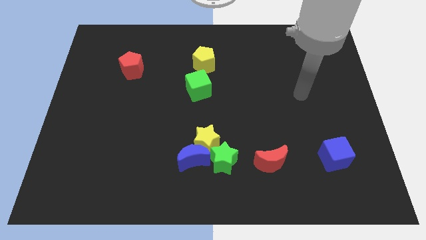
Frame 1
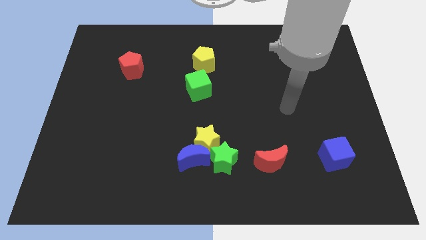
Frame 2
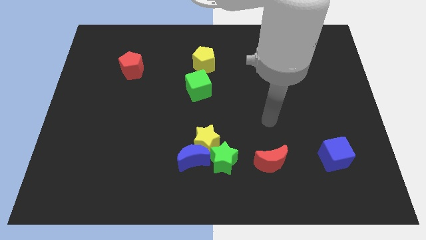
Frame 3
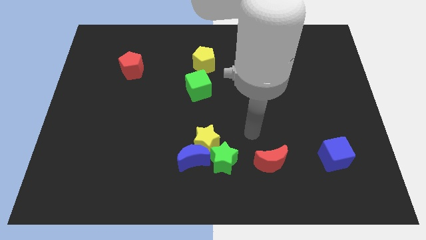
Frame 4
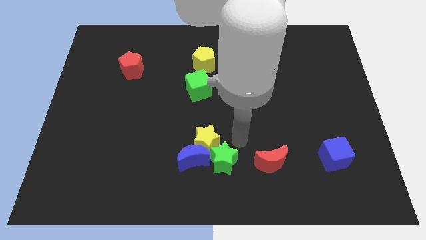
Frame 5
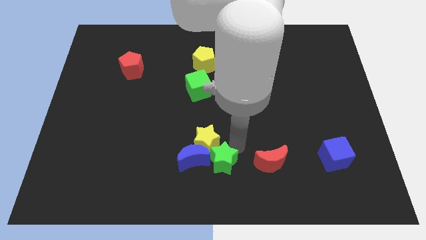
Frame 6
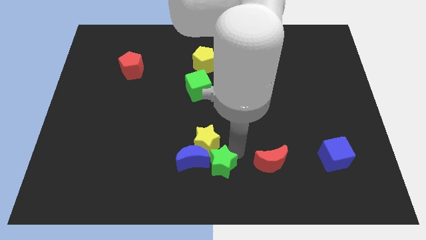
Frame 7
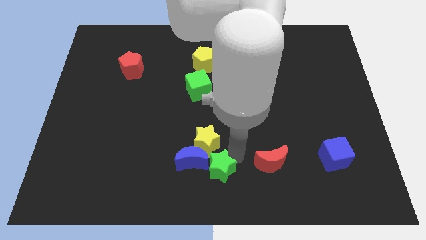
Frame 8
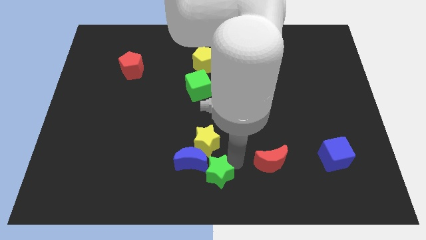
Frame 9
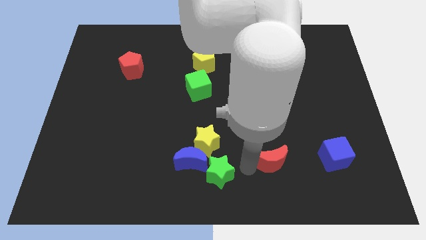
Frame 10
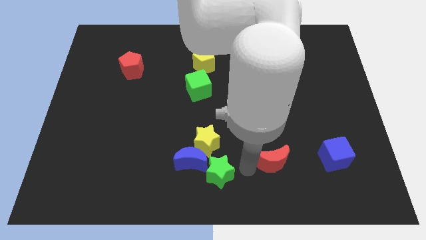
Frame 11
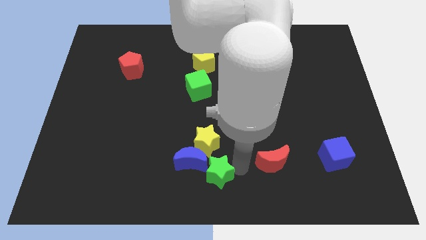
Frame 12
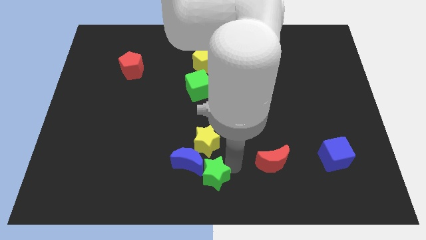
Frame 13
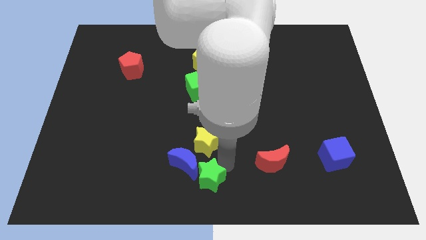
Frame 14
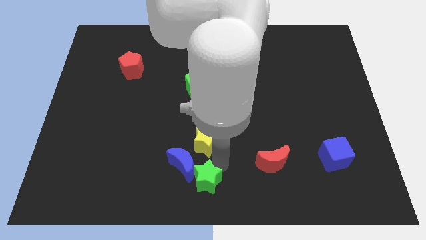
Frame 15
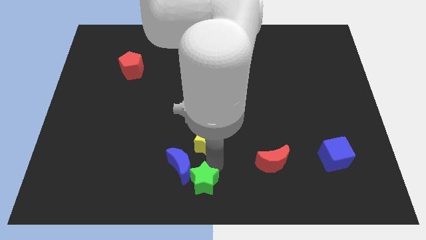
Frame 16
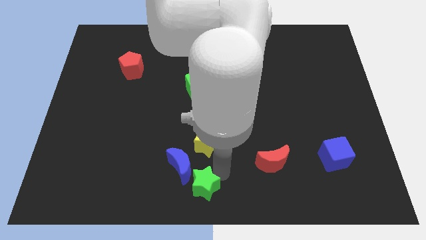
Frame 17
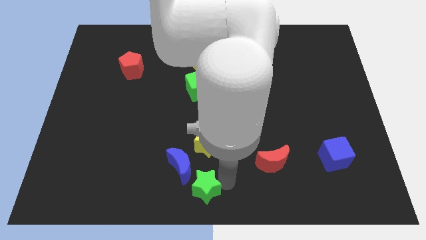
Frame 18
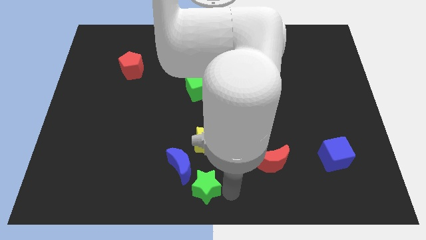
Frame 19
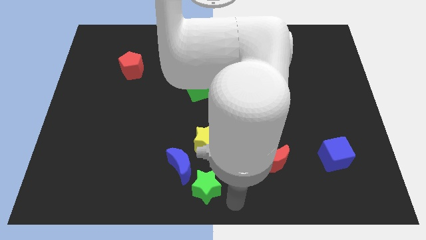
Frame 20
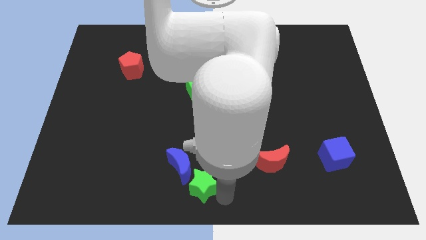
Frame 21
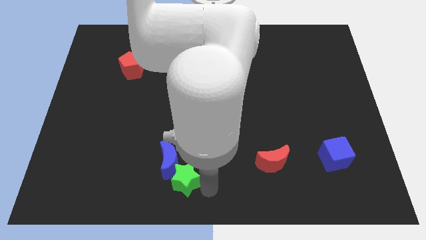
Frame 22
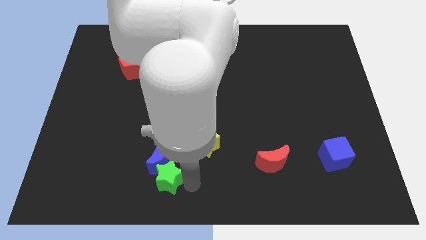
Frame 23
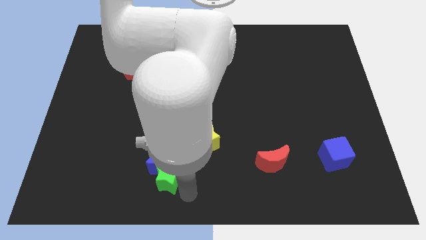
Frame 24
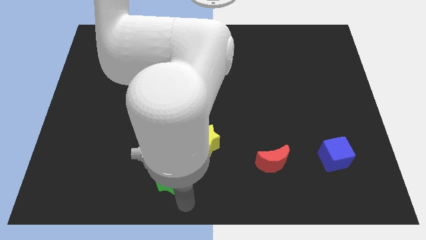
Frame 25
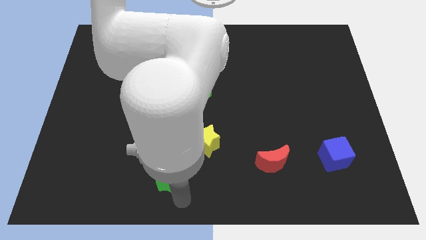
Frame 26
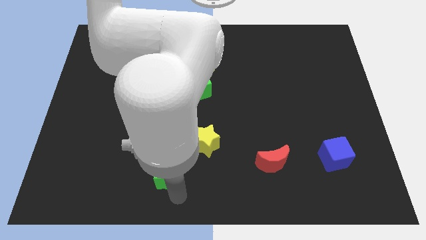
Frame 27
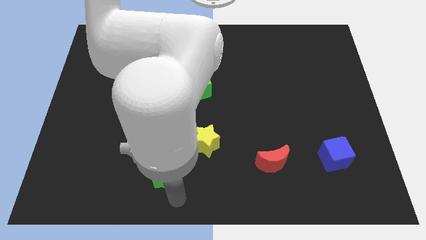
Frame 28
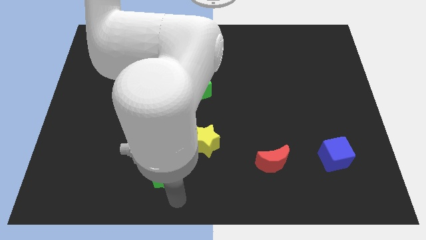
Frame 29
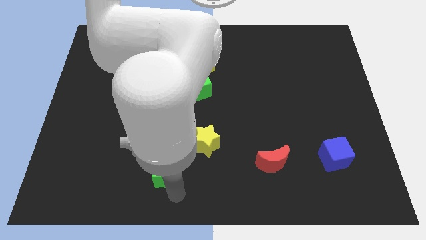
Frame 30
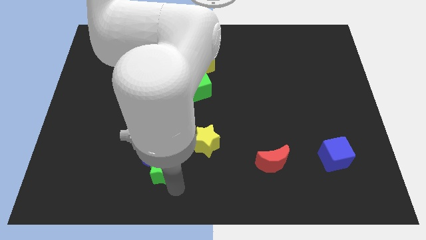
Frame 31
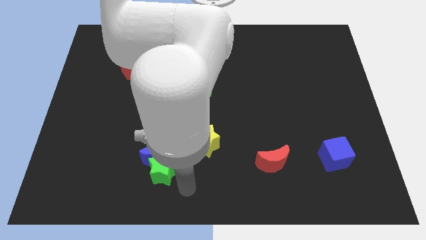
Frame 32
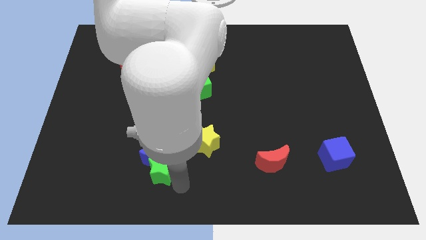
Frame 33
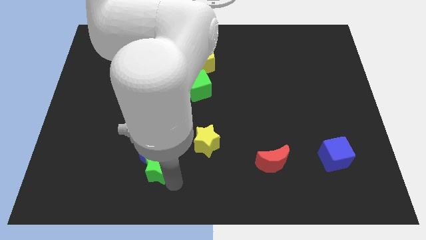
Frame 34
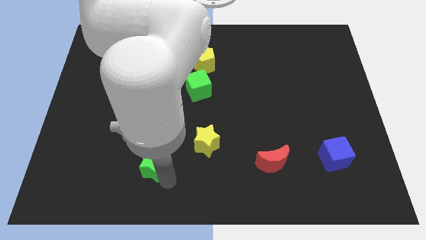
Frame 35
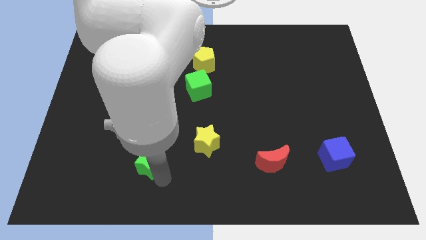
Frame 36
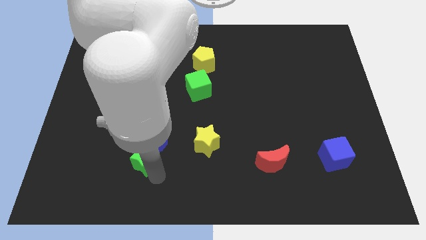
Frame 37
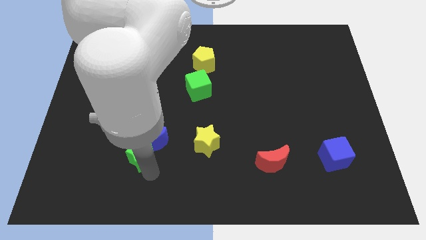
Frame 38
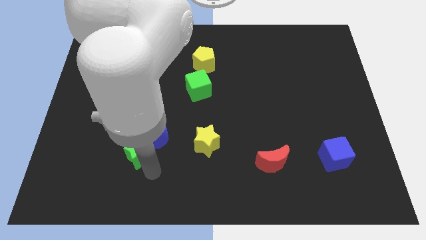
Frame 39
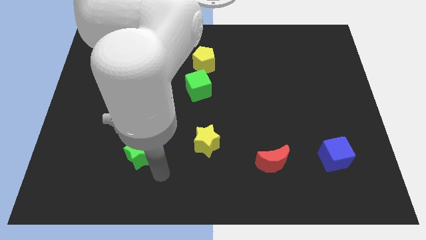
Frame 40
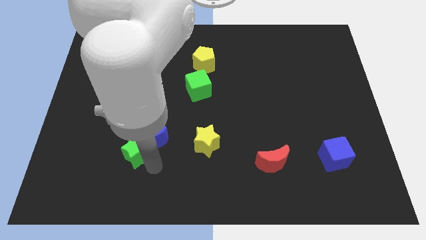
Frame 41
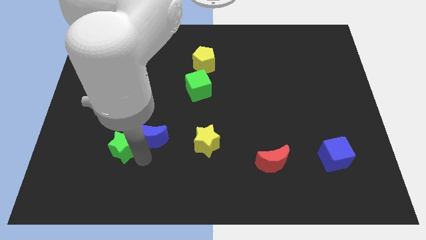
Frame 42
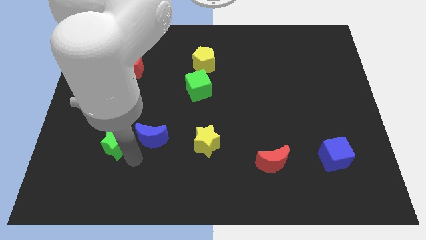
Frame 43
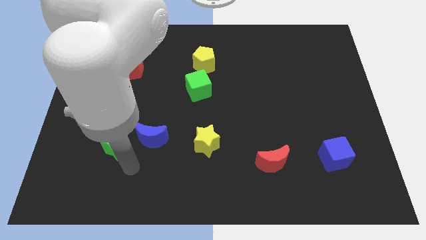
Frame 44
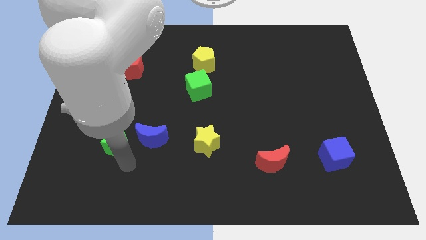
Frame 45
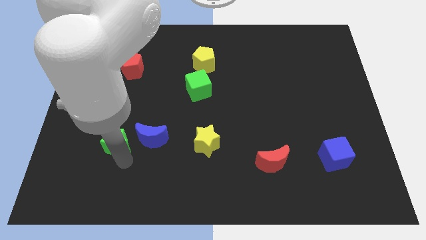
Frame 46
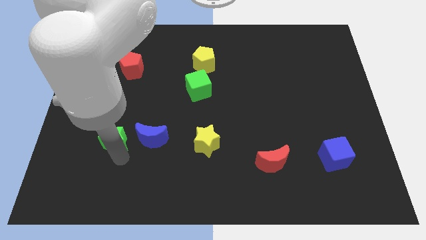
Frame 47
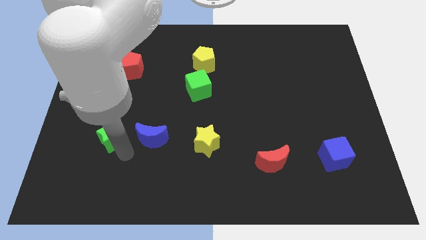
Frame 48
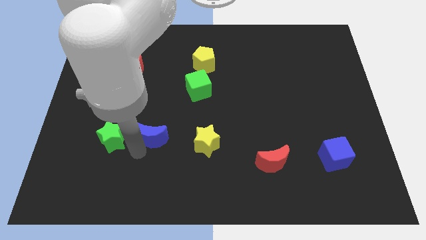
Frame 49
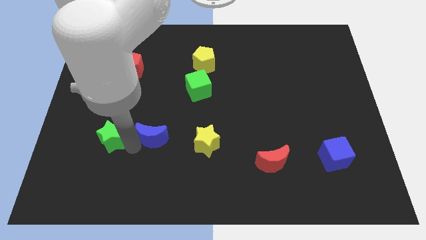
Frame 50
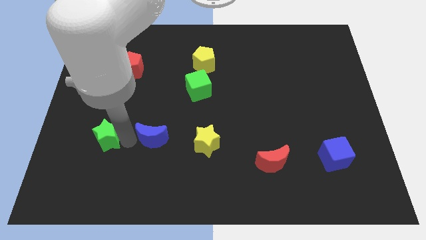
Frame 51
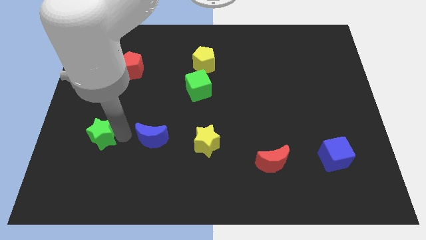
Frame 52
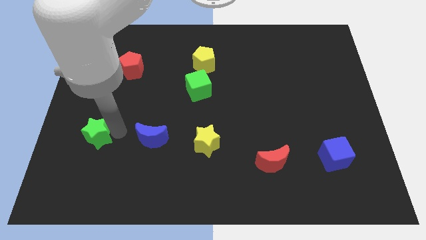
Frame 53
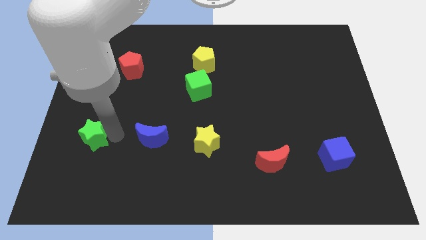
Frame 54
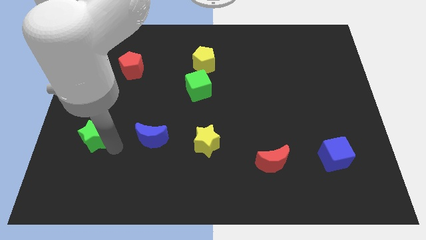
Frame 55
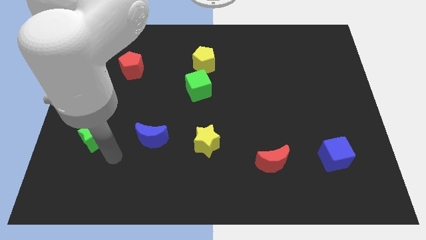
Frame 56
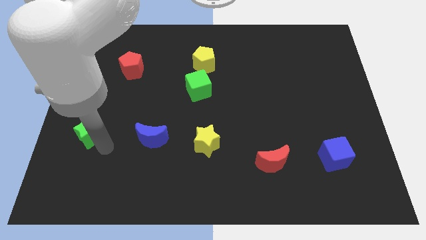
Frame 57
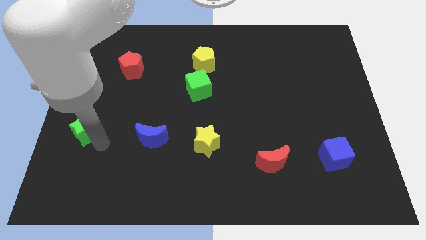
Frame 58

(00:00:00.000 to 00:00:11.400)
move the green star to the center left

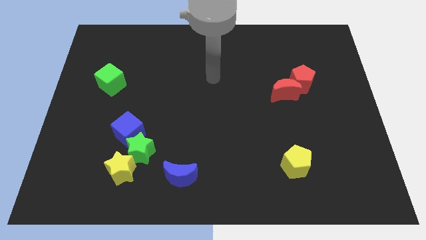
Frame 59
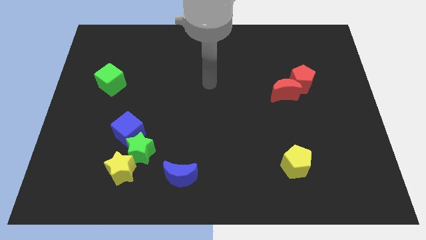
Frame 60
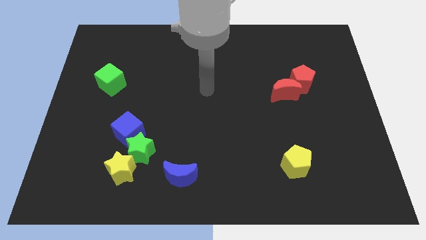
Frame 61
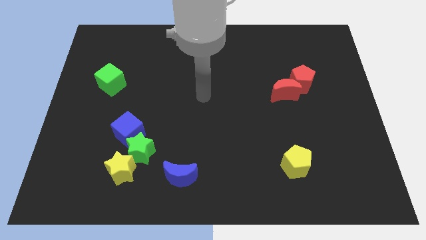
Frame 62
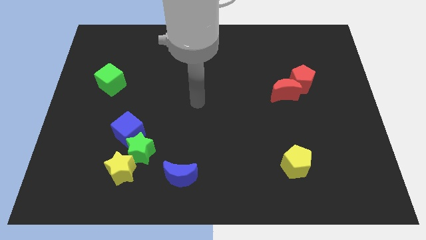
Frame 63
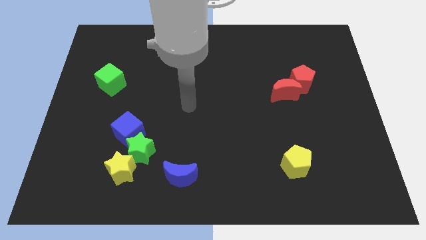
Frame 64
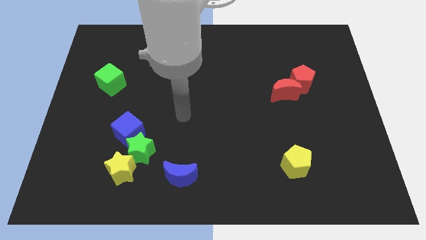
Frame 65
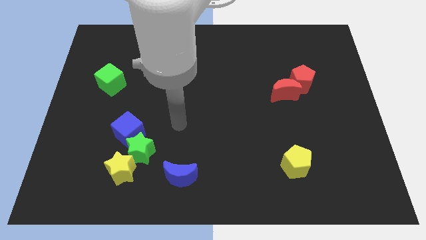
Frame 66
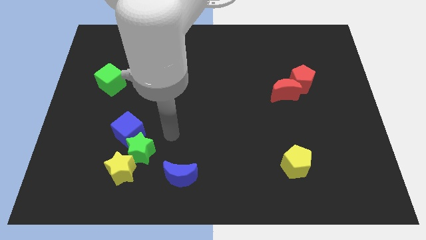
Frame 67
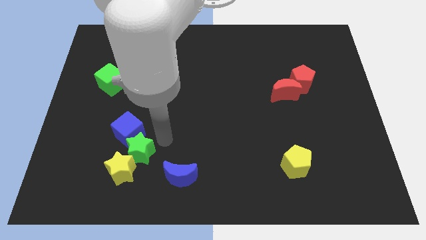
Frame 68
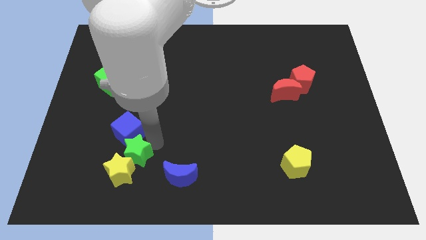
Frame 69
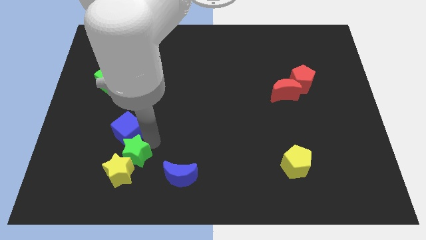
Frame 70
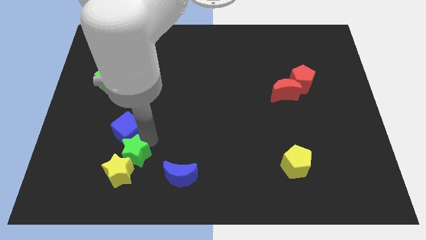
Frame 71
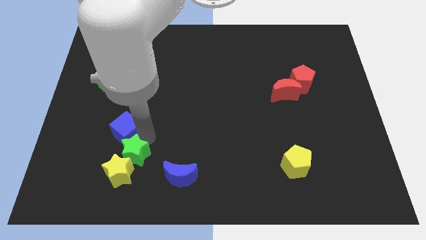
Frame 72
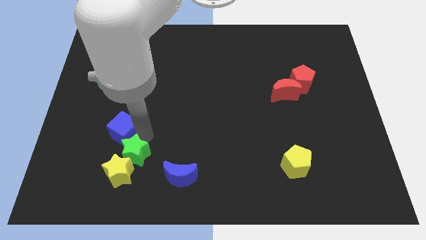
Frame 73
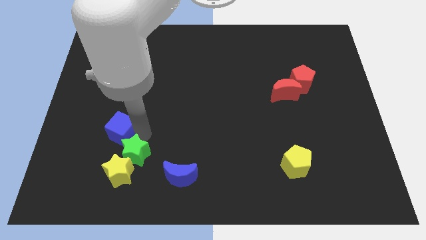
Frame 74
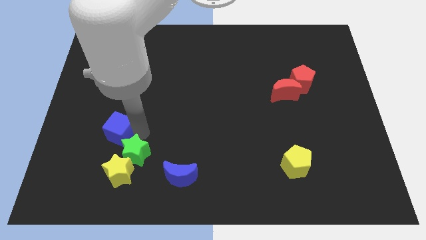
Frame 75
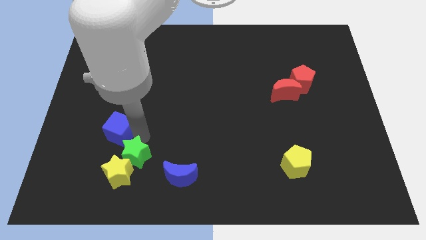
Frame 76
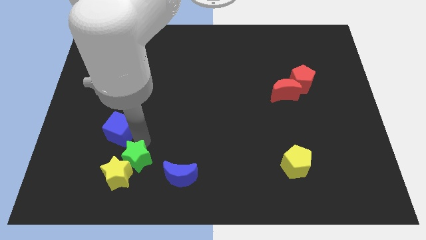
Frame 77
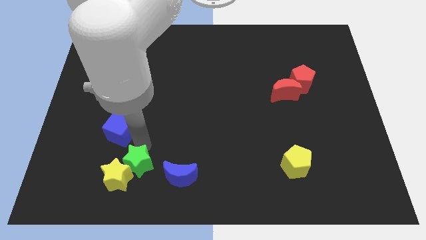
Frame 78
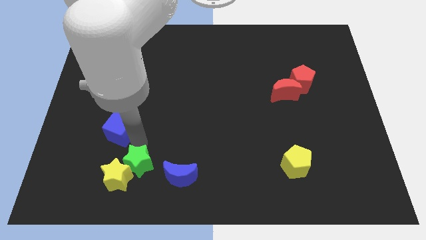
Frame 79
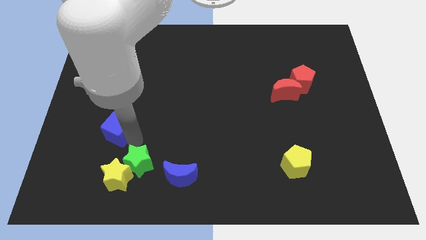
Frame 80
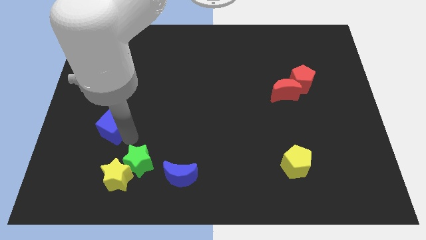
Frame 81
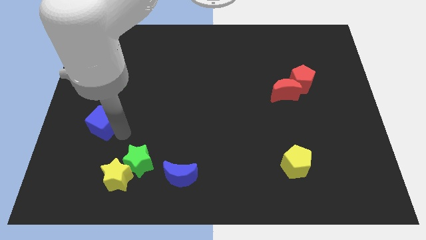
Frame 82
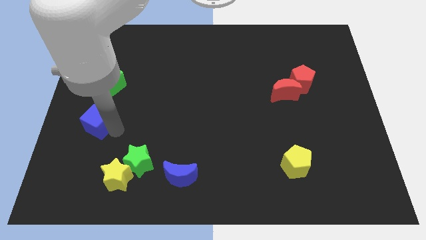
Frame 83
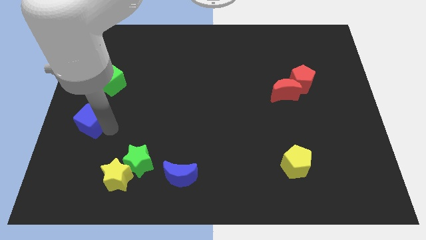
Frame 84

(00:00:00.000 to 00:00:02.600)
move the blue cube to the left side of the board
